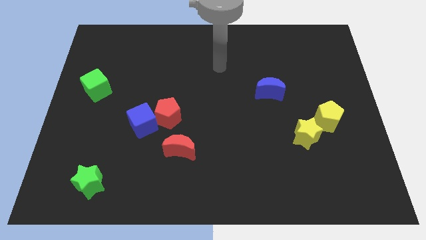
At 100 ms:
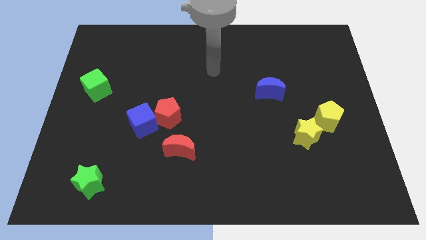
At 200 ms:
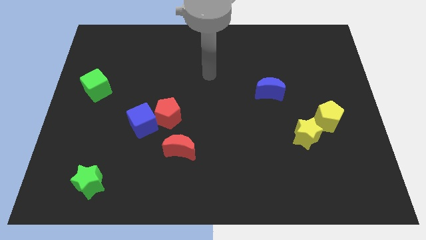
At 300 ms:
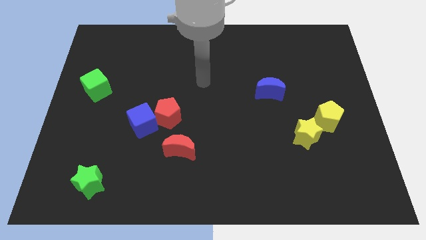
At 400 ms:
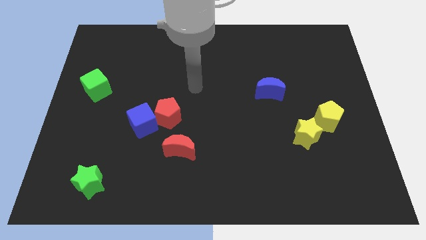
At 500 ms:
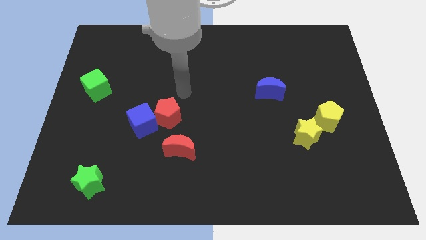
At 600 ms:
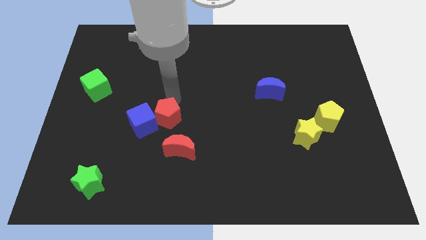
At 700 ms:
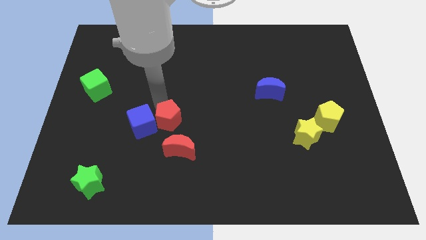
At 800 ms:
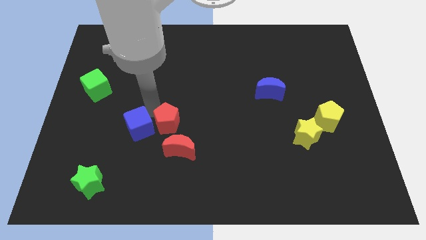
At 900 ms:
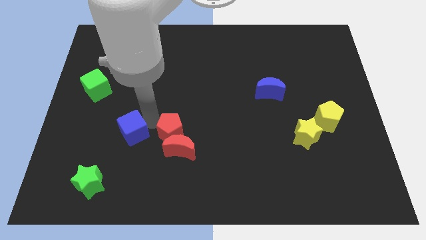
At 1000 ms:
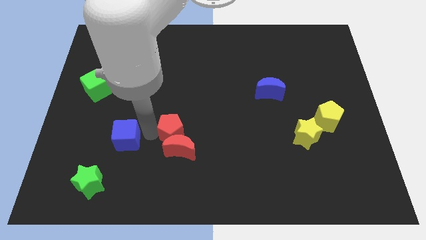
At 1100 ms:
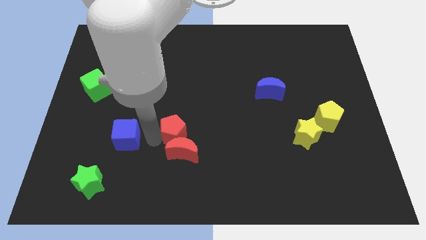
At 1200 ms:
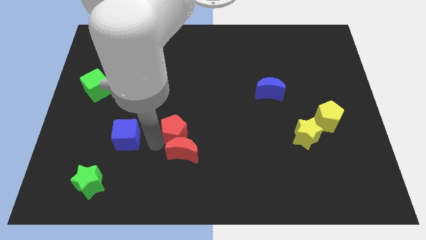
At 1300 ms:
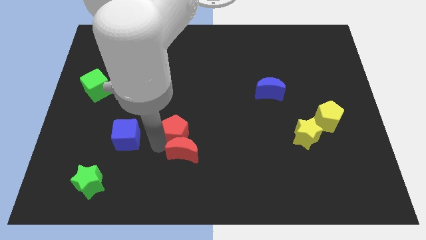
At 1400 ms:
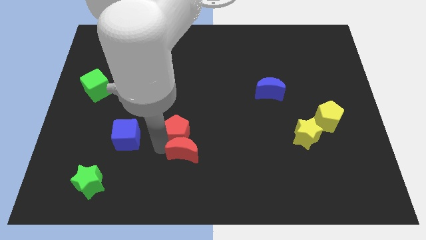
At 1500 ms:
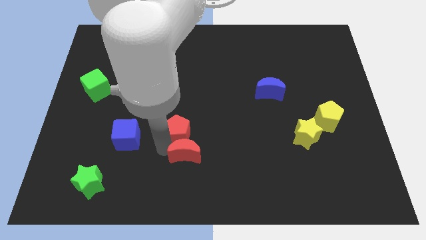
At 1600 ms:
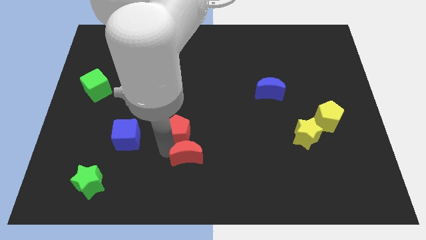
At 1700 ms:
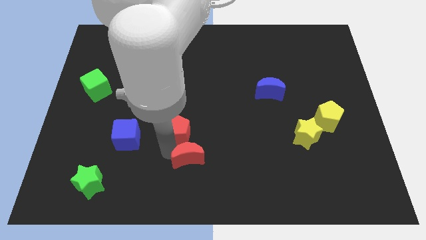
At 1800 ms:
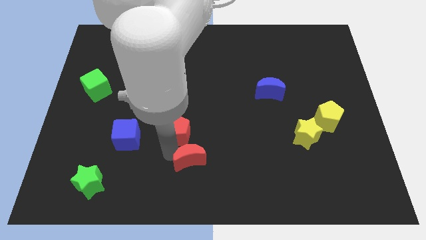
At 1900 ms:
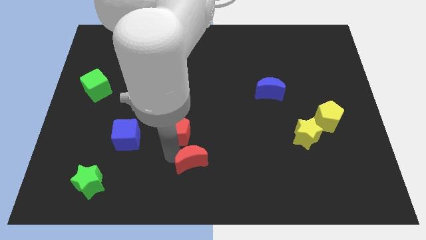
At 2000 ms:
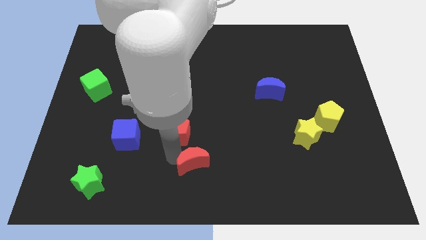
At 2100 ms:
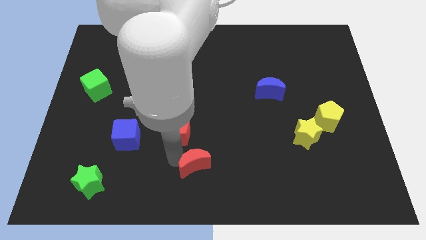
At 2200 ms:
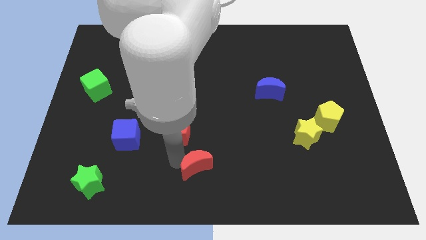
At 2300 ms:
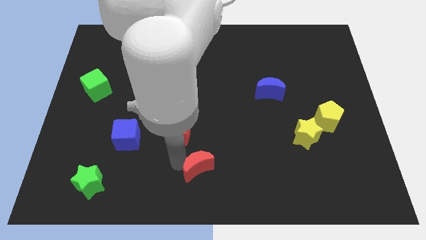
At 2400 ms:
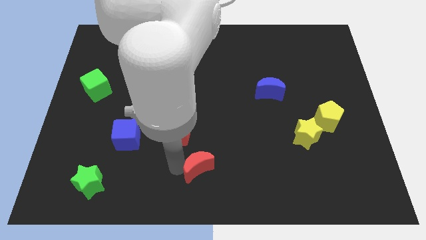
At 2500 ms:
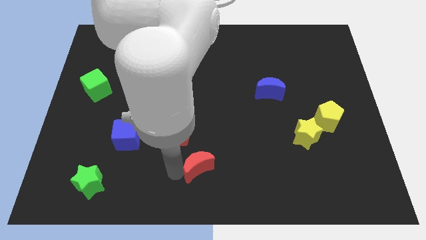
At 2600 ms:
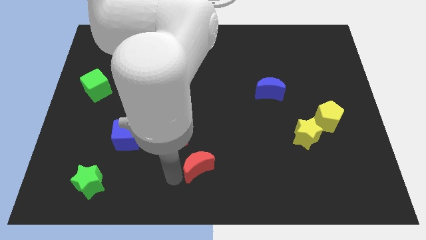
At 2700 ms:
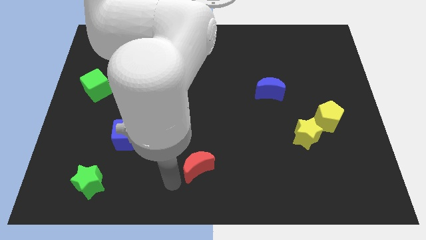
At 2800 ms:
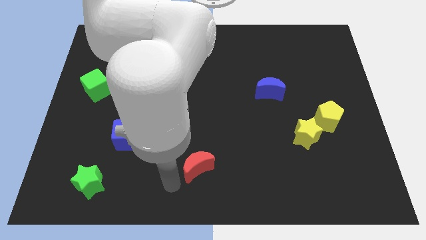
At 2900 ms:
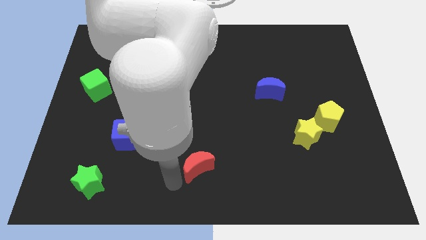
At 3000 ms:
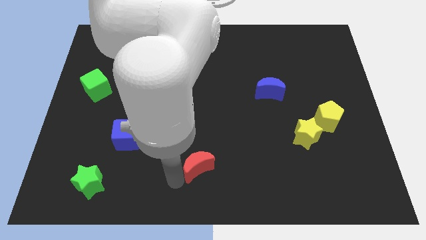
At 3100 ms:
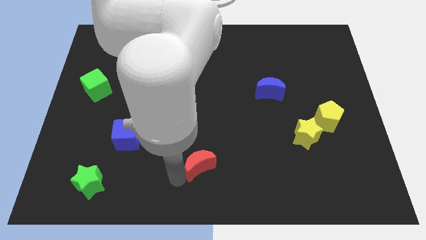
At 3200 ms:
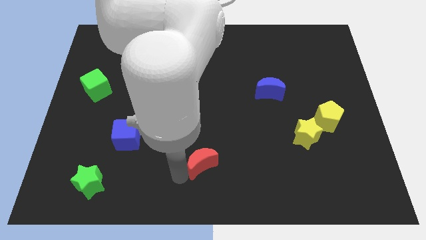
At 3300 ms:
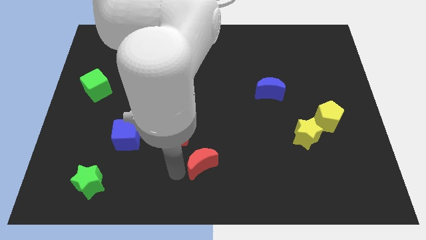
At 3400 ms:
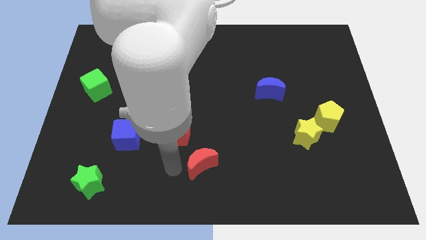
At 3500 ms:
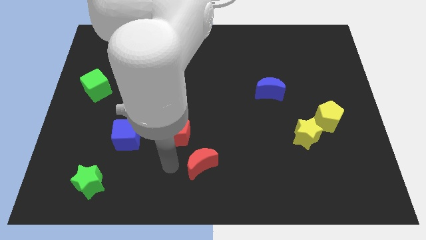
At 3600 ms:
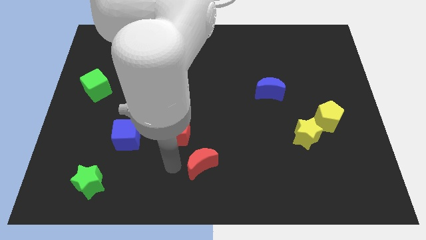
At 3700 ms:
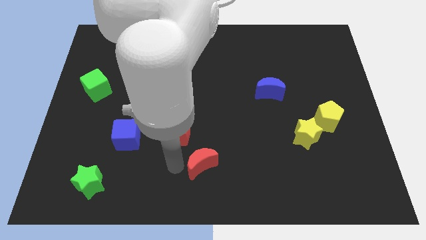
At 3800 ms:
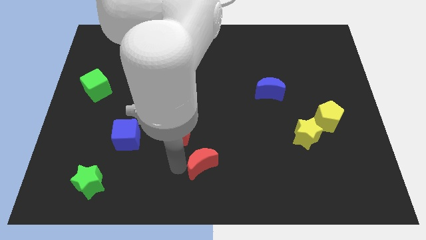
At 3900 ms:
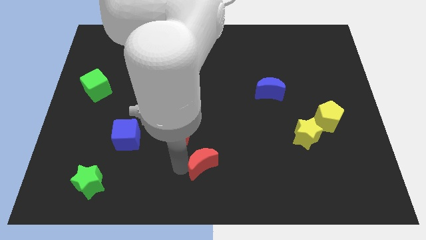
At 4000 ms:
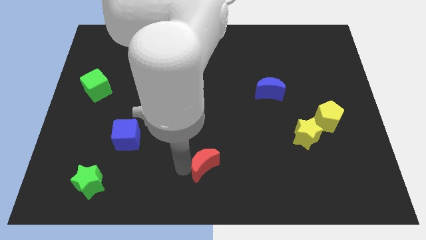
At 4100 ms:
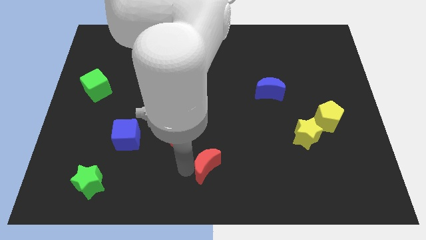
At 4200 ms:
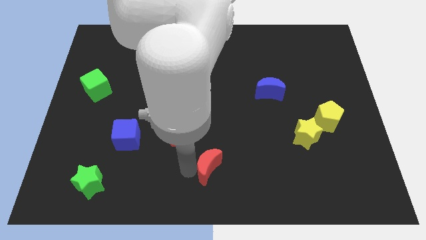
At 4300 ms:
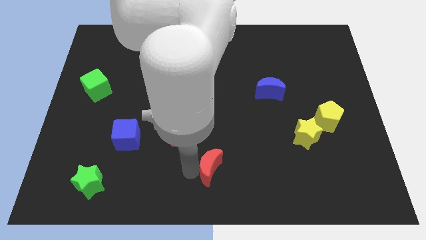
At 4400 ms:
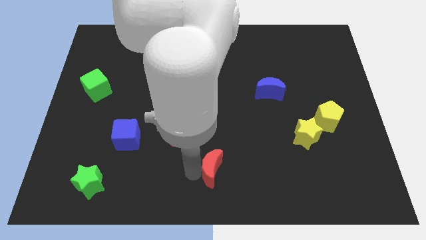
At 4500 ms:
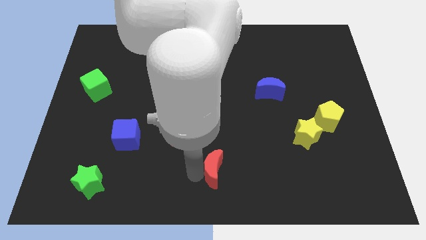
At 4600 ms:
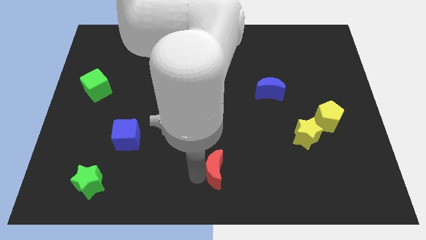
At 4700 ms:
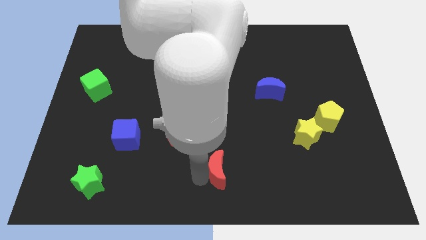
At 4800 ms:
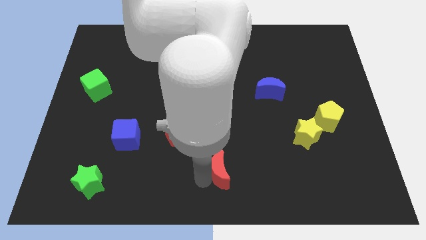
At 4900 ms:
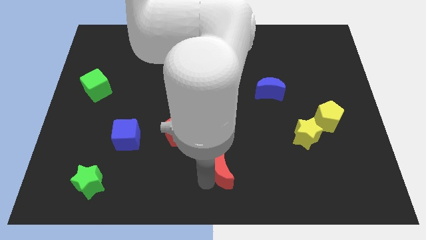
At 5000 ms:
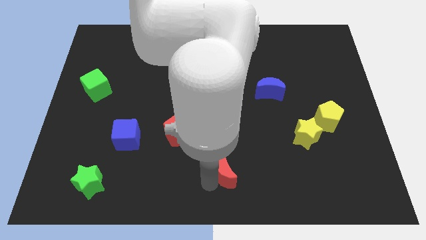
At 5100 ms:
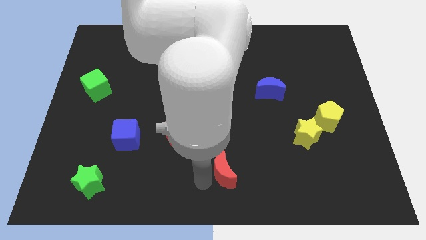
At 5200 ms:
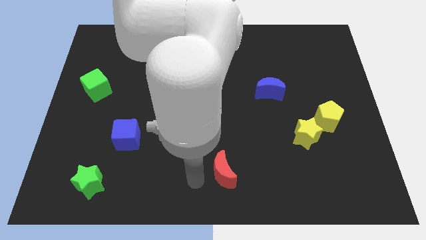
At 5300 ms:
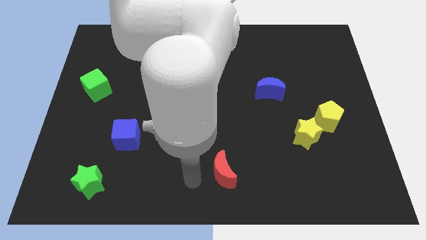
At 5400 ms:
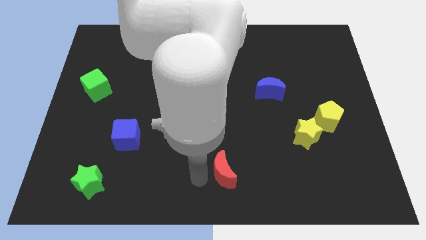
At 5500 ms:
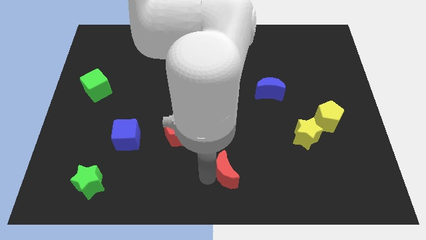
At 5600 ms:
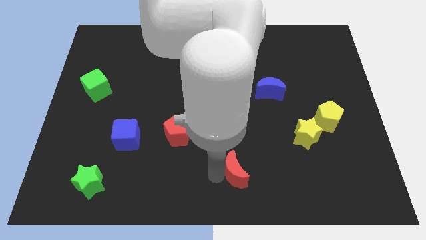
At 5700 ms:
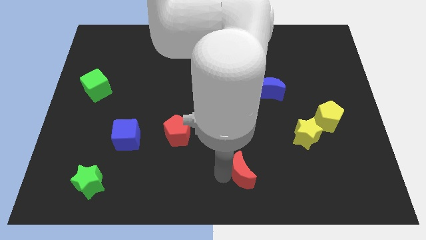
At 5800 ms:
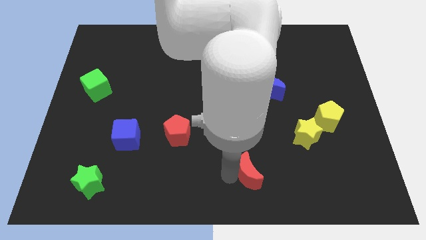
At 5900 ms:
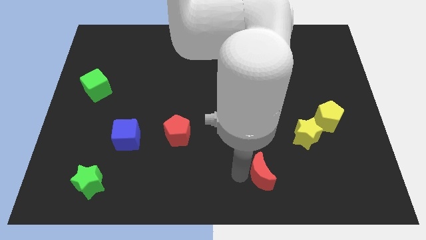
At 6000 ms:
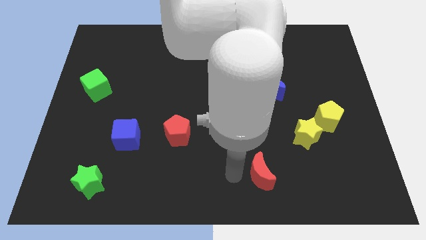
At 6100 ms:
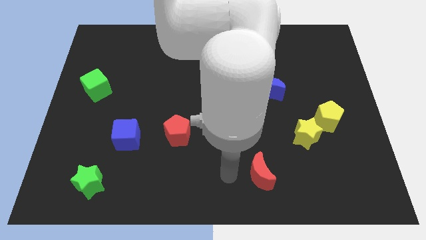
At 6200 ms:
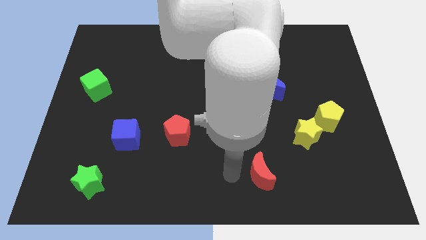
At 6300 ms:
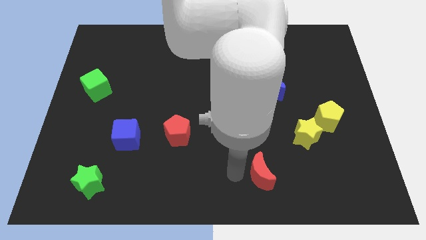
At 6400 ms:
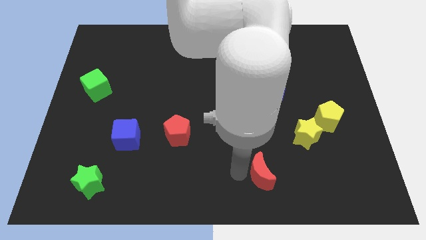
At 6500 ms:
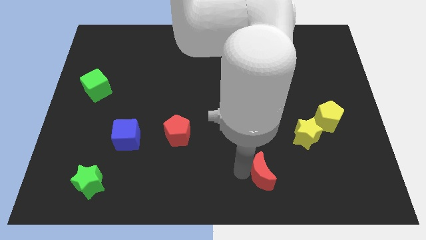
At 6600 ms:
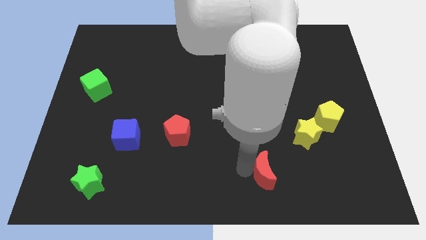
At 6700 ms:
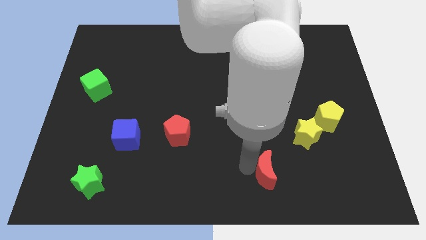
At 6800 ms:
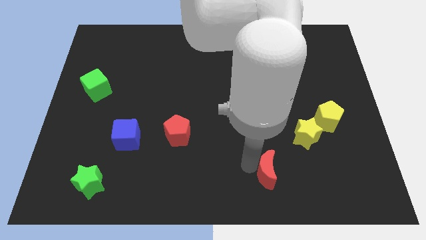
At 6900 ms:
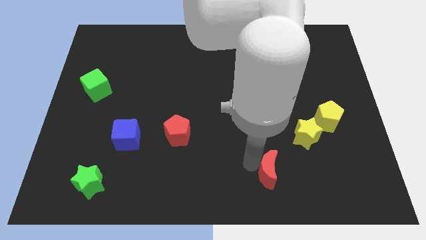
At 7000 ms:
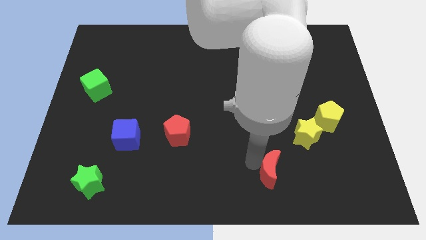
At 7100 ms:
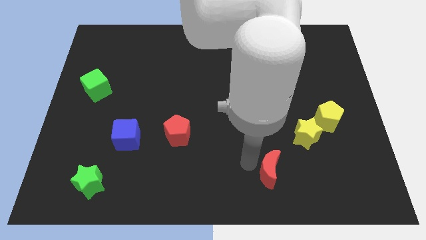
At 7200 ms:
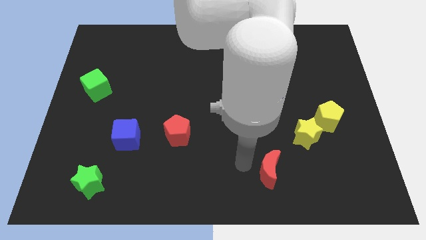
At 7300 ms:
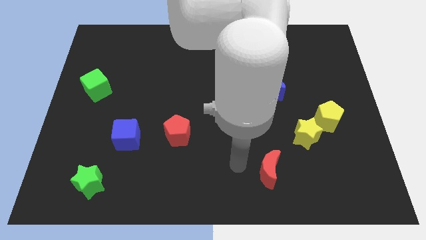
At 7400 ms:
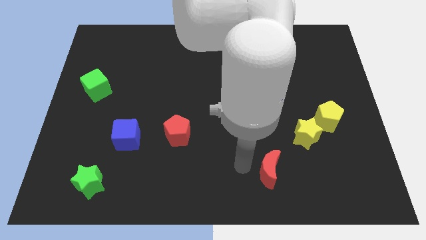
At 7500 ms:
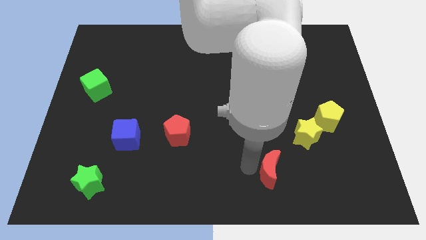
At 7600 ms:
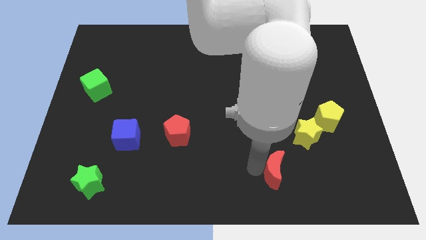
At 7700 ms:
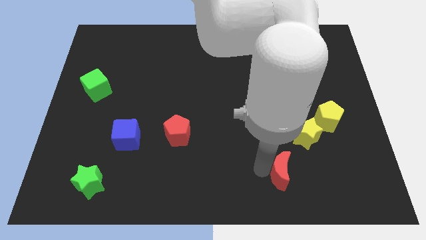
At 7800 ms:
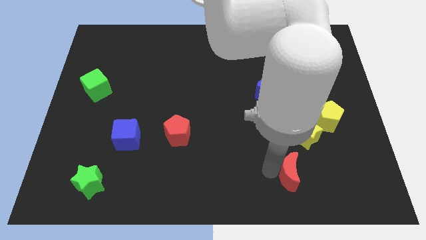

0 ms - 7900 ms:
move the red moon below the yellow star
